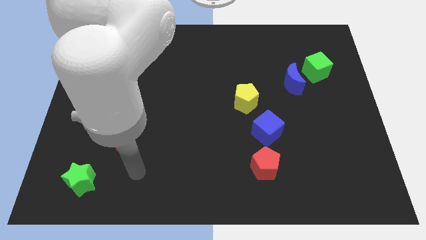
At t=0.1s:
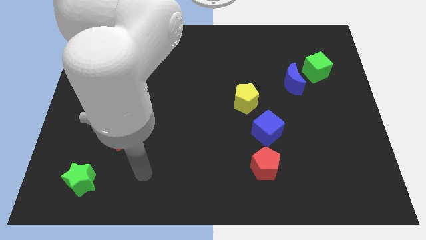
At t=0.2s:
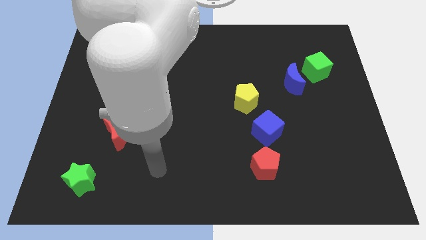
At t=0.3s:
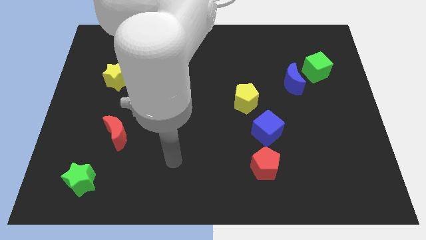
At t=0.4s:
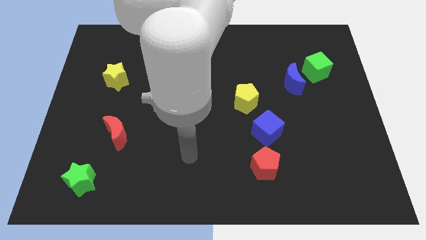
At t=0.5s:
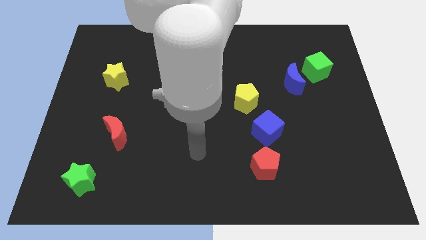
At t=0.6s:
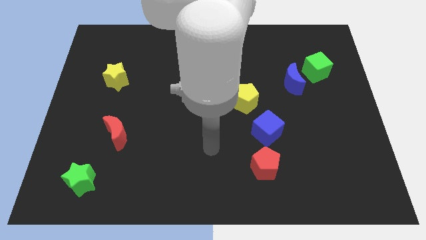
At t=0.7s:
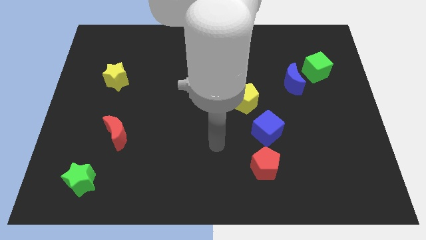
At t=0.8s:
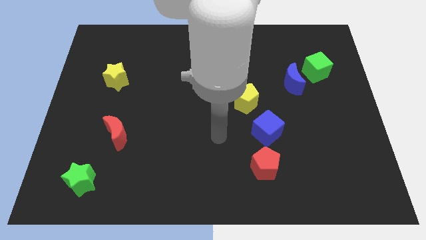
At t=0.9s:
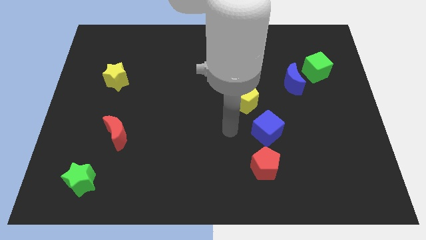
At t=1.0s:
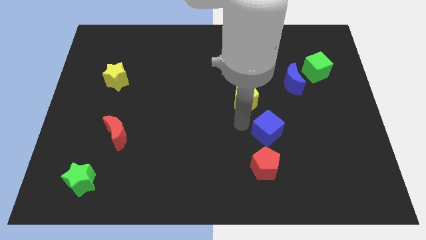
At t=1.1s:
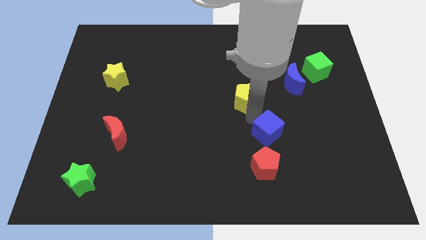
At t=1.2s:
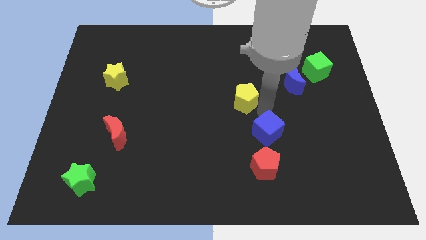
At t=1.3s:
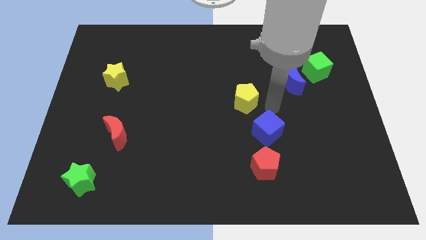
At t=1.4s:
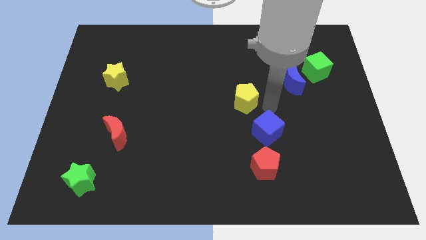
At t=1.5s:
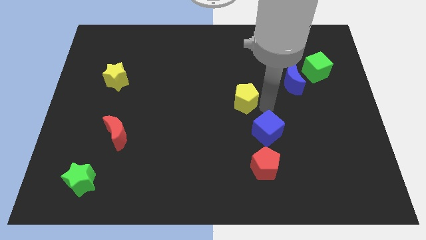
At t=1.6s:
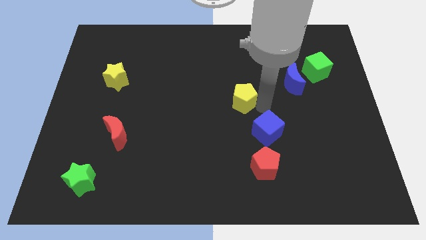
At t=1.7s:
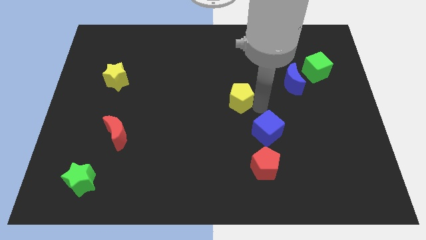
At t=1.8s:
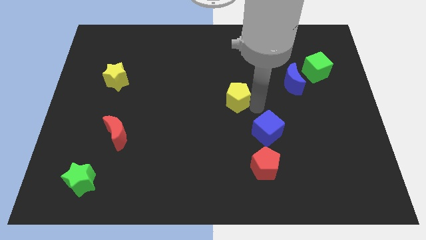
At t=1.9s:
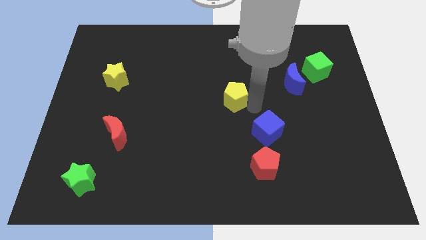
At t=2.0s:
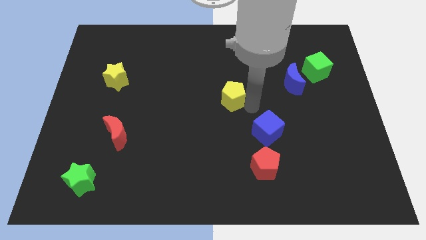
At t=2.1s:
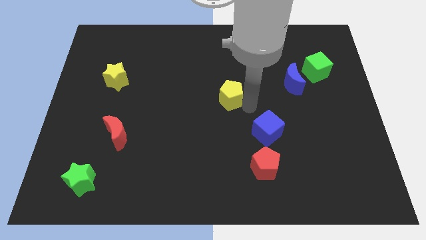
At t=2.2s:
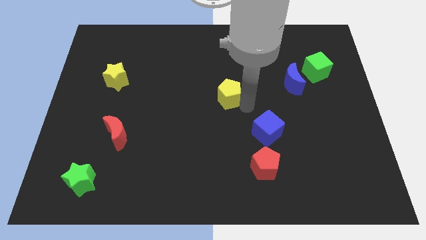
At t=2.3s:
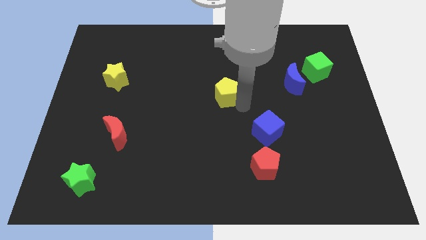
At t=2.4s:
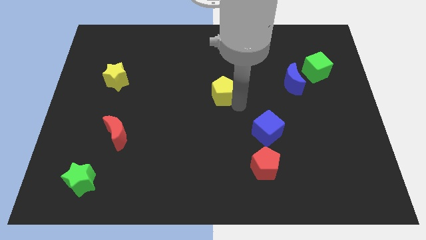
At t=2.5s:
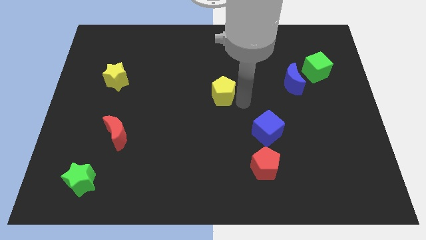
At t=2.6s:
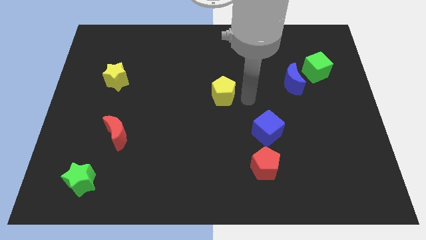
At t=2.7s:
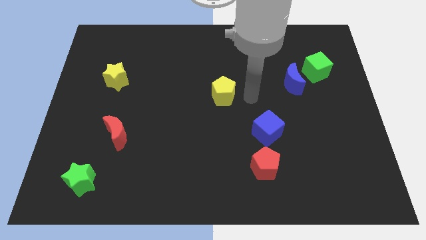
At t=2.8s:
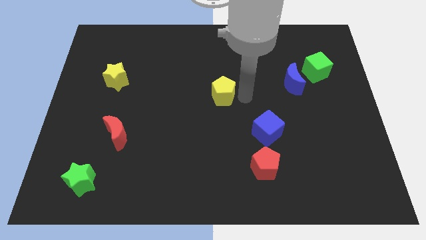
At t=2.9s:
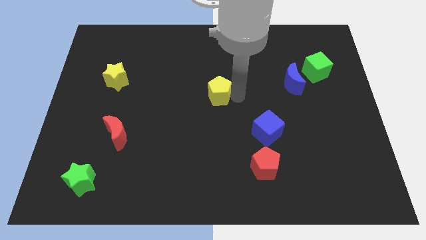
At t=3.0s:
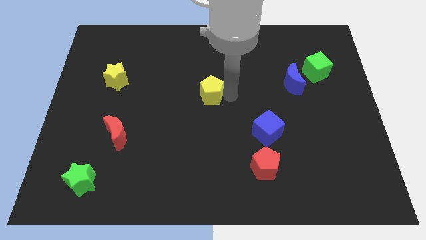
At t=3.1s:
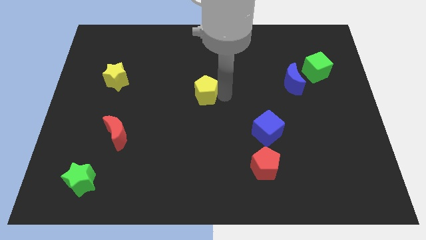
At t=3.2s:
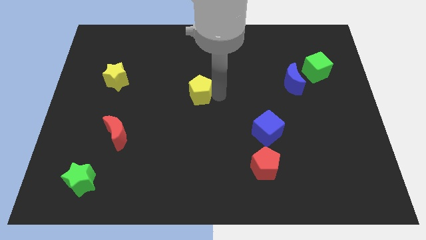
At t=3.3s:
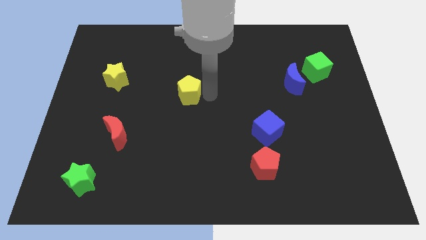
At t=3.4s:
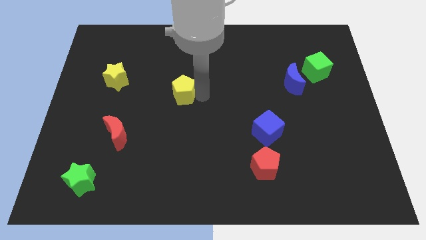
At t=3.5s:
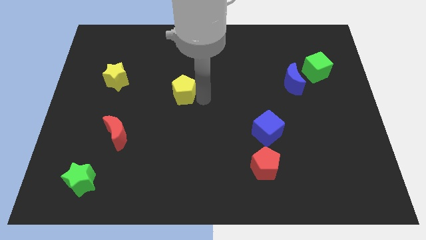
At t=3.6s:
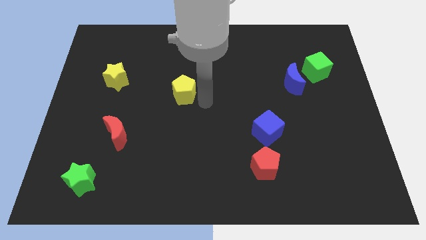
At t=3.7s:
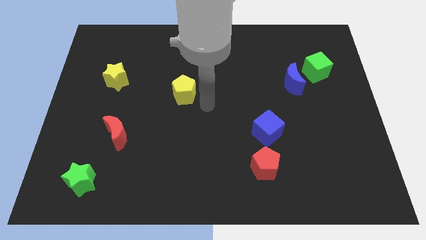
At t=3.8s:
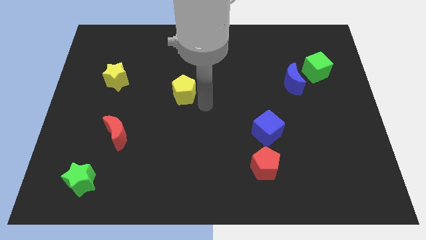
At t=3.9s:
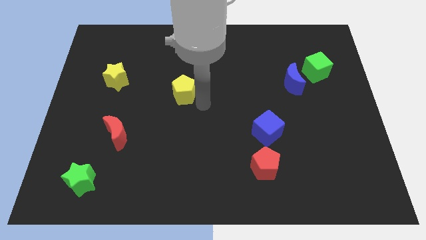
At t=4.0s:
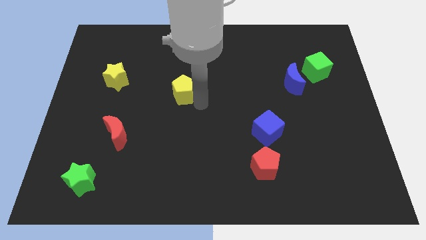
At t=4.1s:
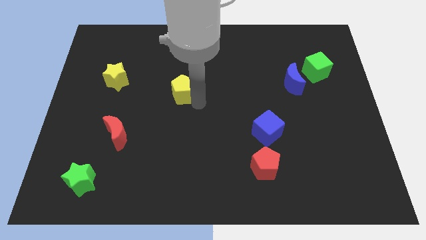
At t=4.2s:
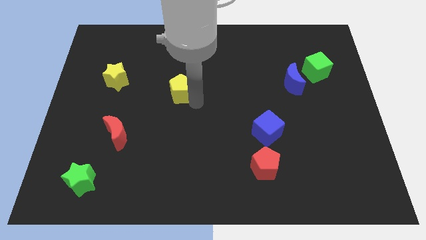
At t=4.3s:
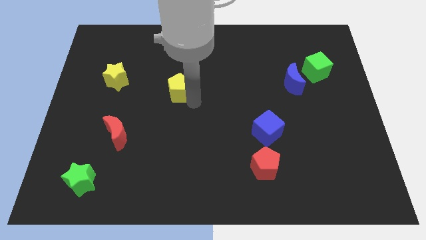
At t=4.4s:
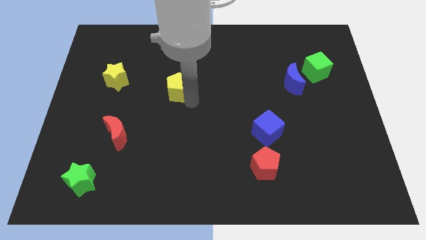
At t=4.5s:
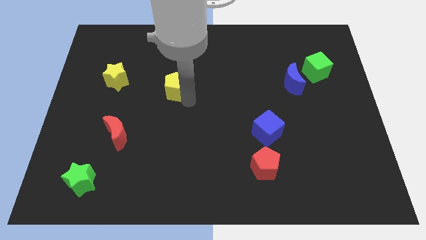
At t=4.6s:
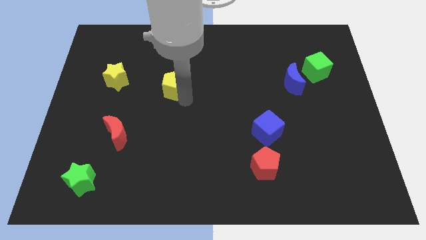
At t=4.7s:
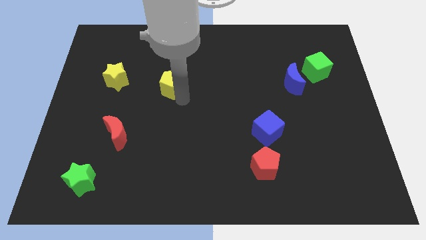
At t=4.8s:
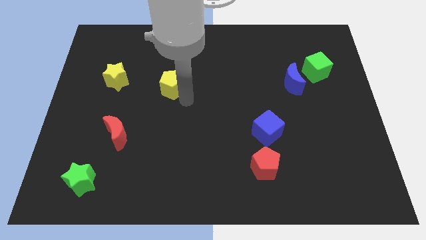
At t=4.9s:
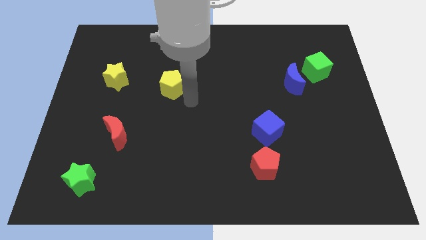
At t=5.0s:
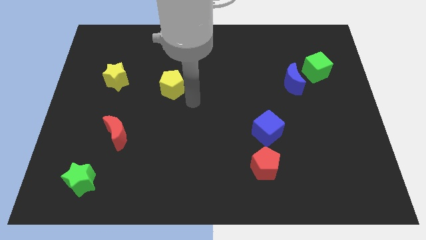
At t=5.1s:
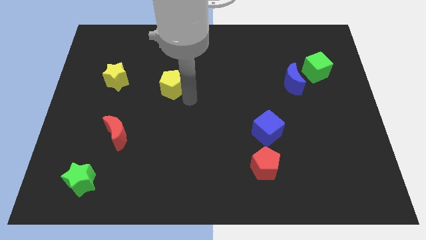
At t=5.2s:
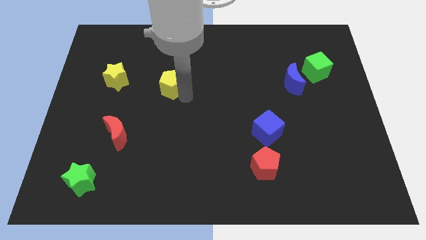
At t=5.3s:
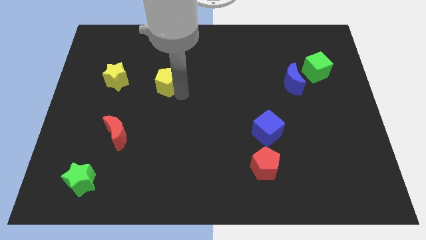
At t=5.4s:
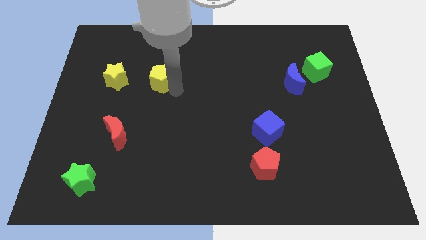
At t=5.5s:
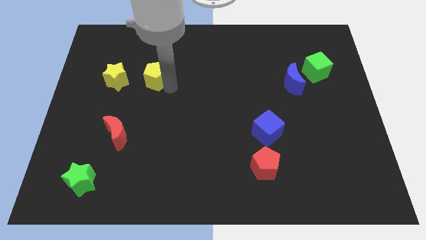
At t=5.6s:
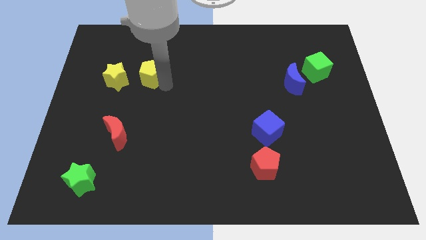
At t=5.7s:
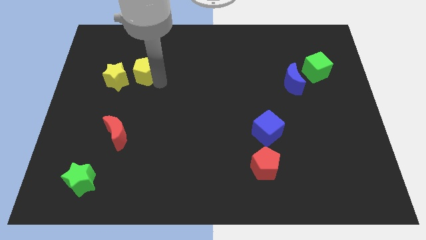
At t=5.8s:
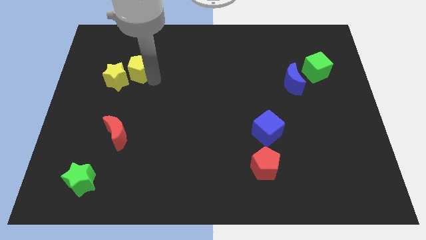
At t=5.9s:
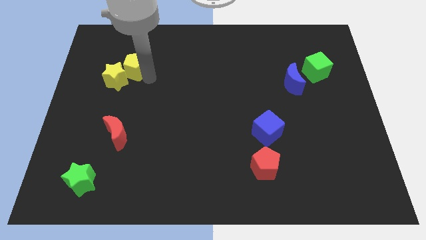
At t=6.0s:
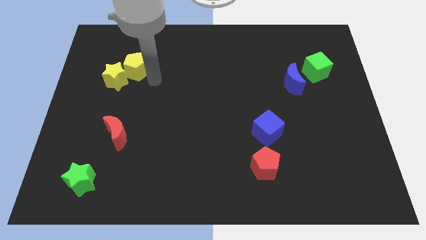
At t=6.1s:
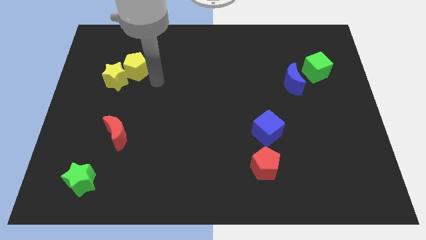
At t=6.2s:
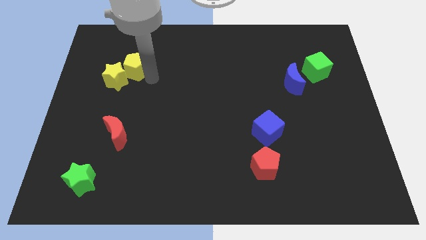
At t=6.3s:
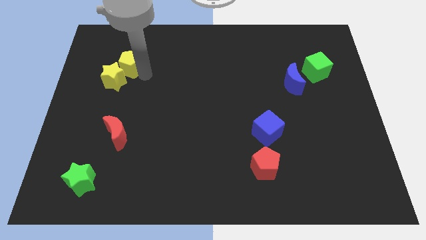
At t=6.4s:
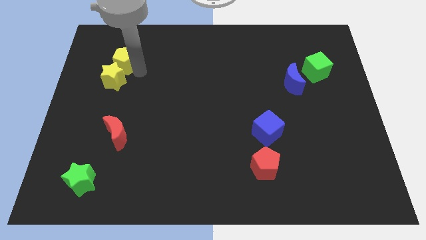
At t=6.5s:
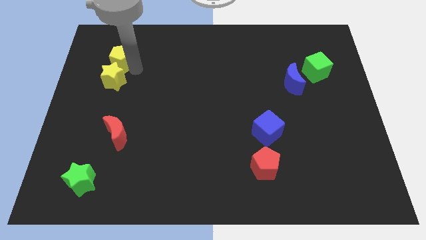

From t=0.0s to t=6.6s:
move the yellow pentagon to the top left side of the yellow star

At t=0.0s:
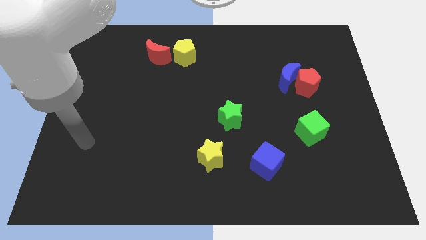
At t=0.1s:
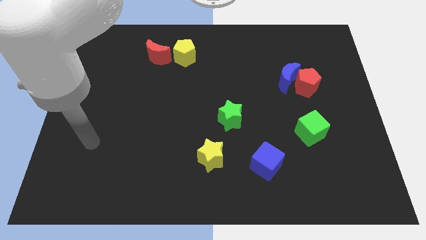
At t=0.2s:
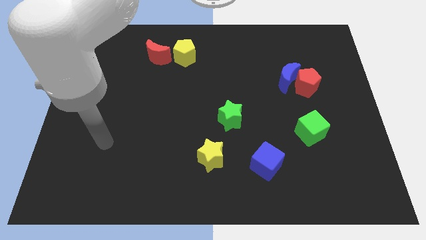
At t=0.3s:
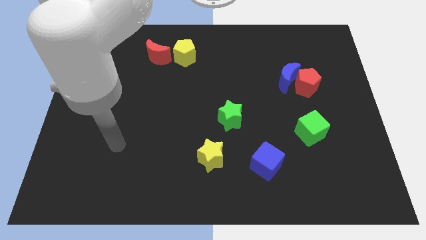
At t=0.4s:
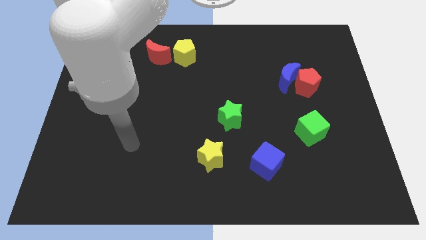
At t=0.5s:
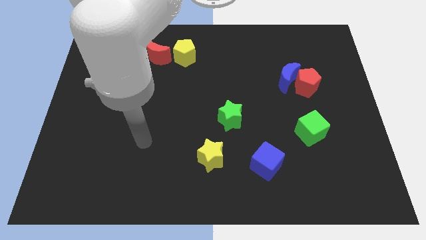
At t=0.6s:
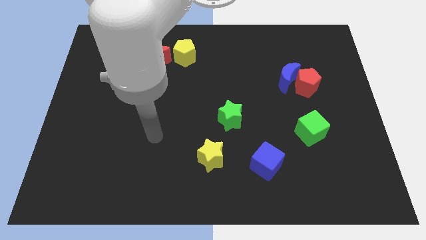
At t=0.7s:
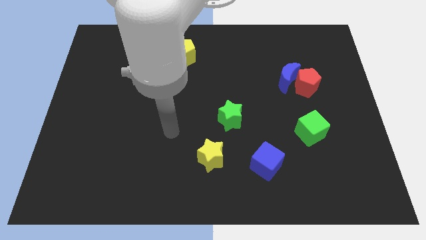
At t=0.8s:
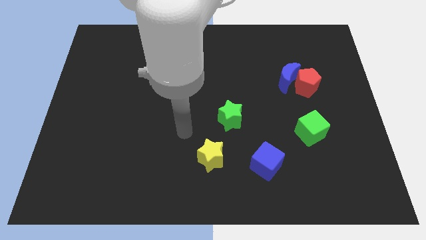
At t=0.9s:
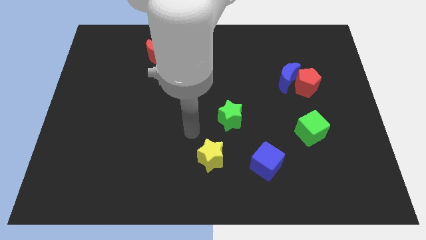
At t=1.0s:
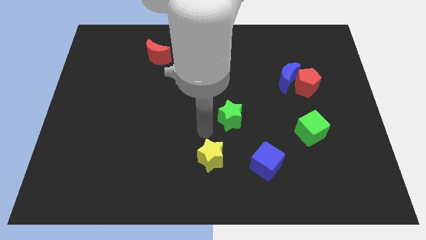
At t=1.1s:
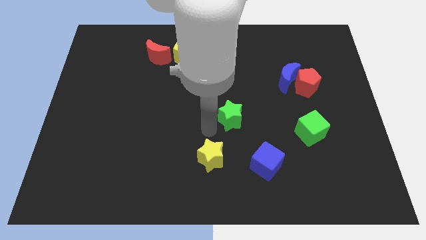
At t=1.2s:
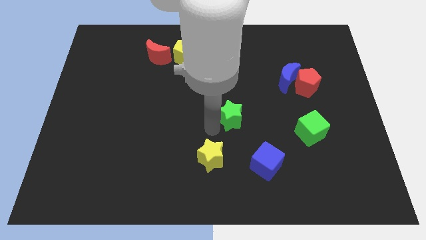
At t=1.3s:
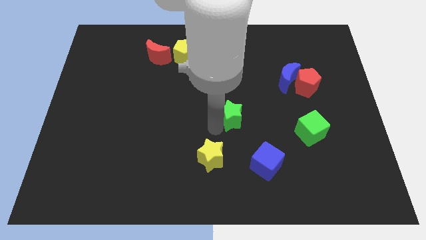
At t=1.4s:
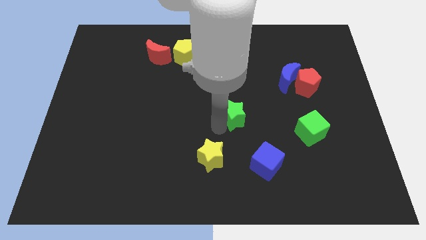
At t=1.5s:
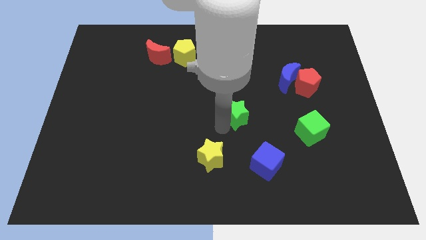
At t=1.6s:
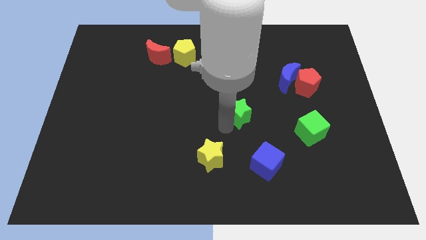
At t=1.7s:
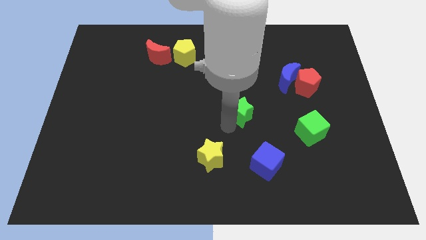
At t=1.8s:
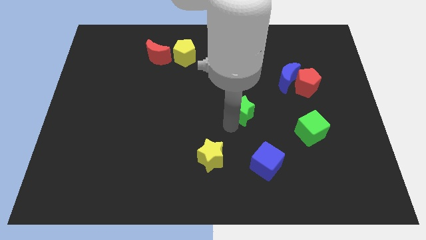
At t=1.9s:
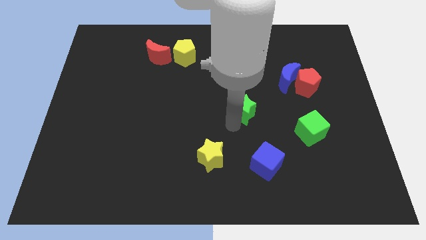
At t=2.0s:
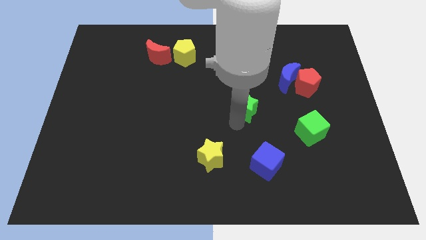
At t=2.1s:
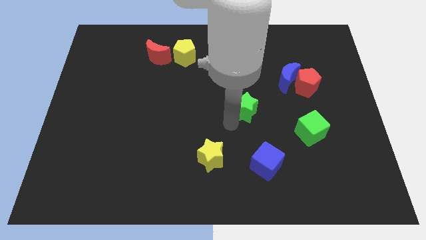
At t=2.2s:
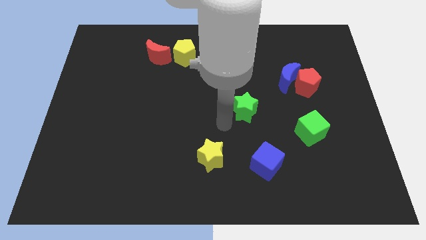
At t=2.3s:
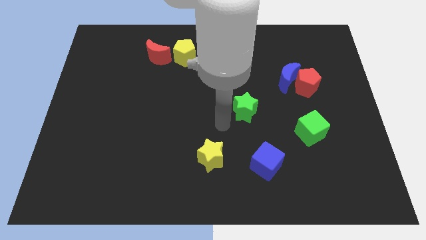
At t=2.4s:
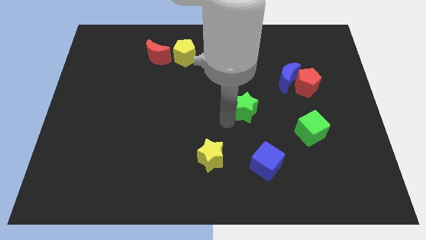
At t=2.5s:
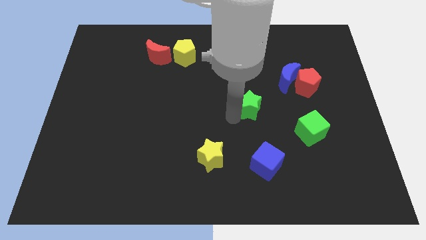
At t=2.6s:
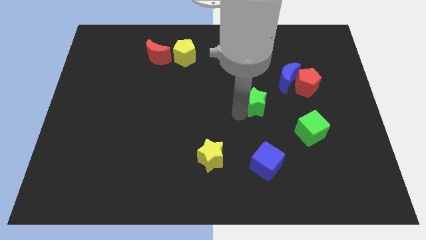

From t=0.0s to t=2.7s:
slide the green star to the bottom left side of the blue moon
